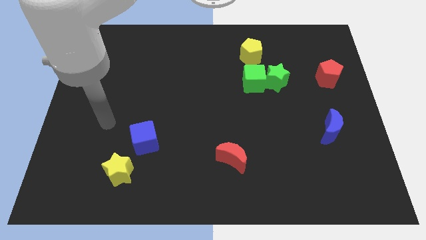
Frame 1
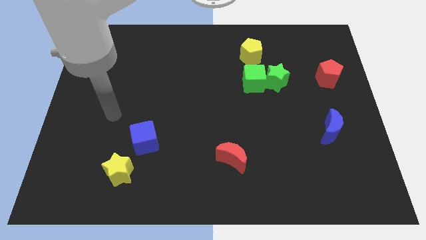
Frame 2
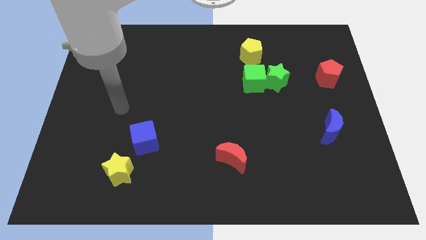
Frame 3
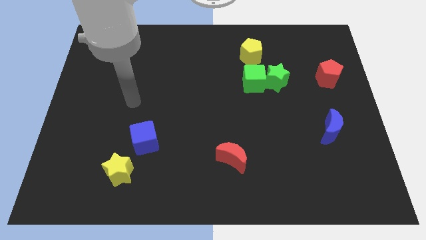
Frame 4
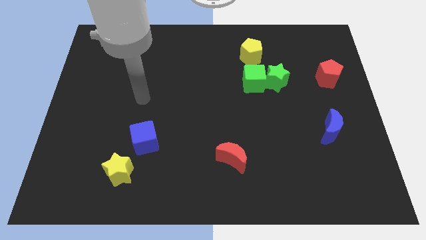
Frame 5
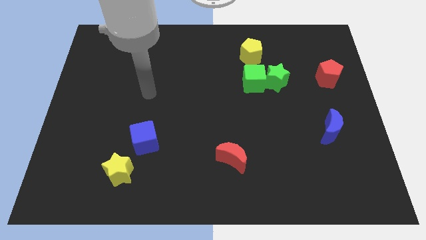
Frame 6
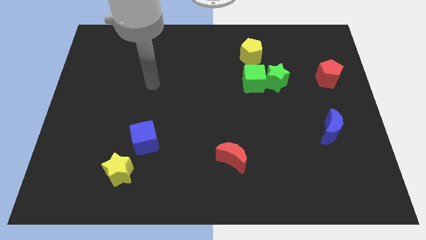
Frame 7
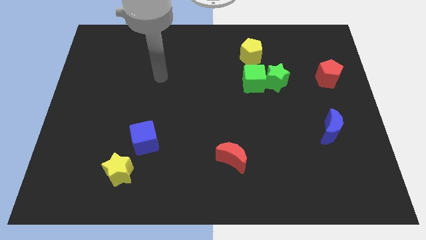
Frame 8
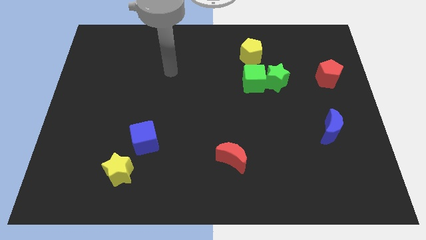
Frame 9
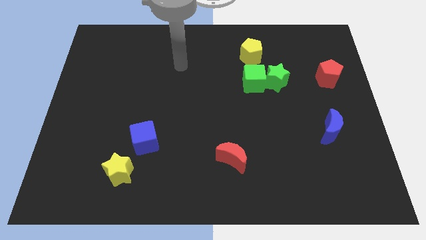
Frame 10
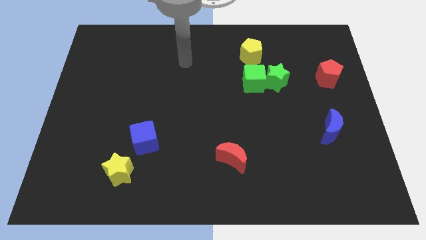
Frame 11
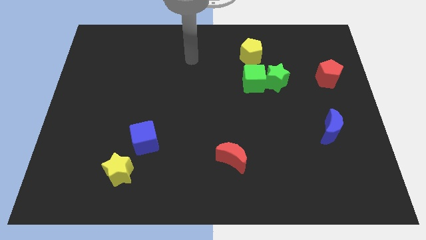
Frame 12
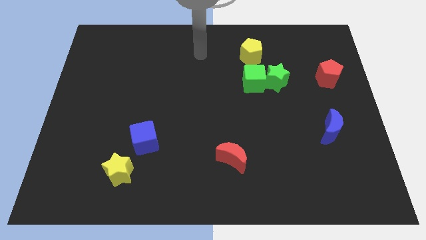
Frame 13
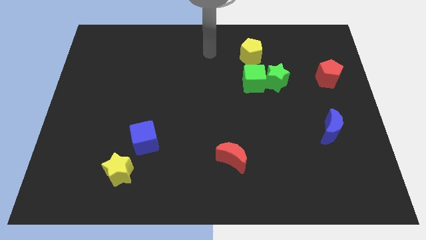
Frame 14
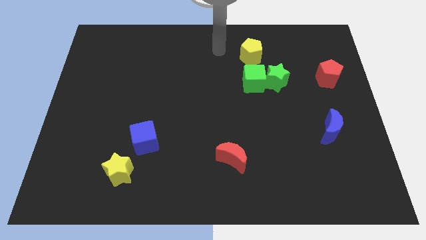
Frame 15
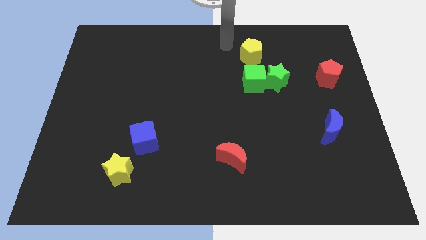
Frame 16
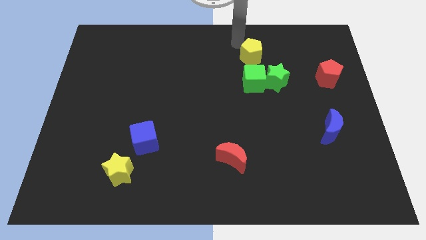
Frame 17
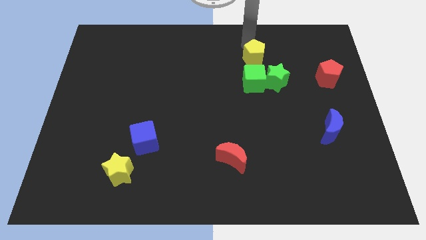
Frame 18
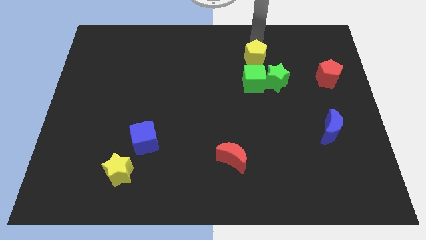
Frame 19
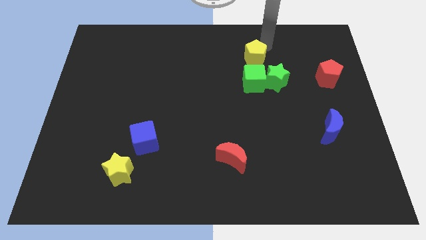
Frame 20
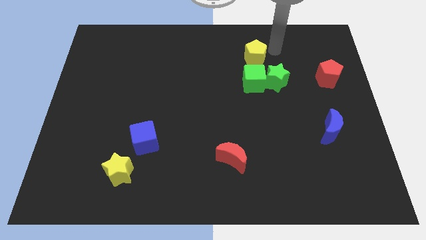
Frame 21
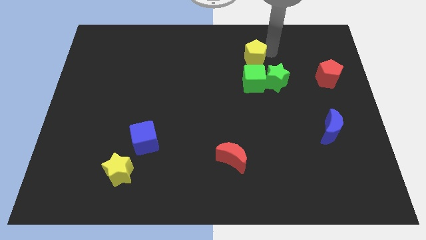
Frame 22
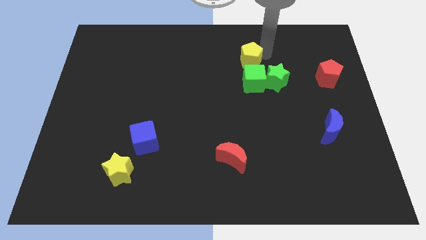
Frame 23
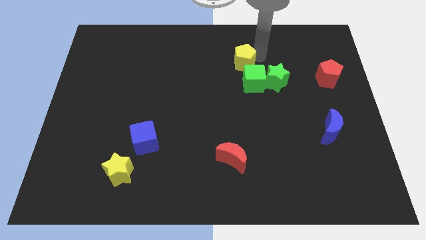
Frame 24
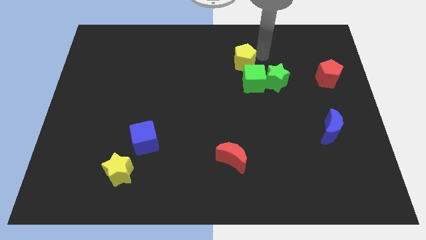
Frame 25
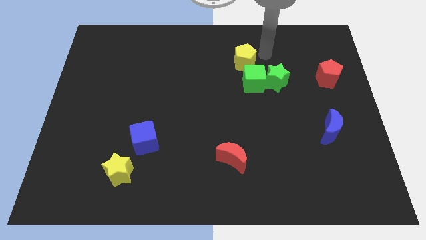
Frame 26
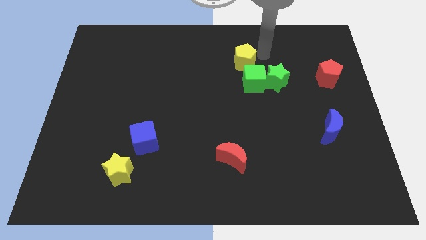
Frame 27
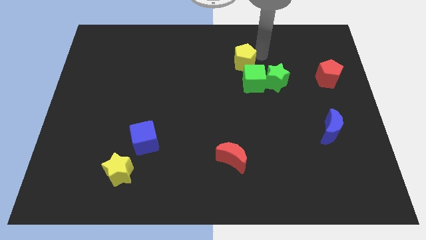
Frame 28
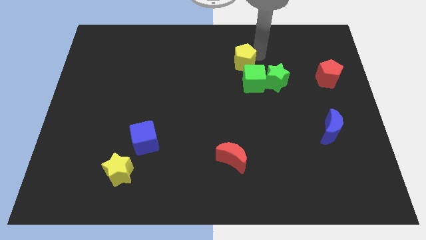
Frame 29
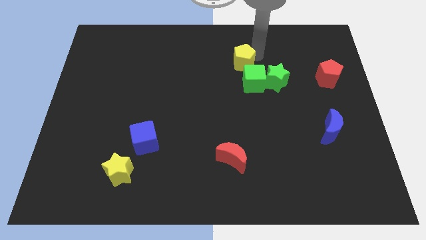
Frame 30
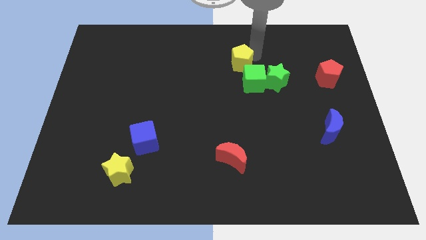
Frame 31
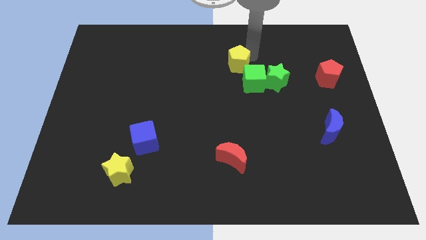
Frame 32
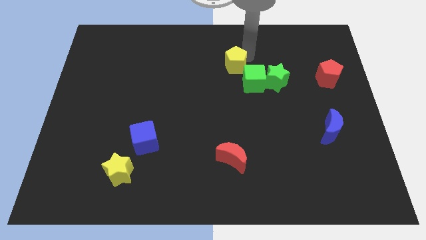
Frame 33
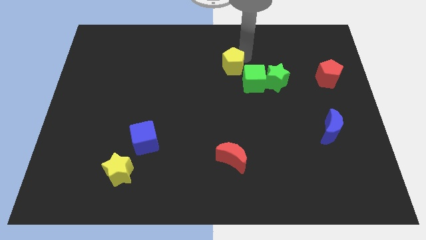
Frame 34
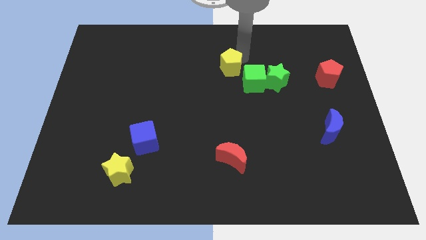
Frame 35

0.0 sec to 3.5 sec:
push the yellow pentagon diagonally down and left somewhat

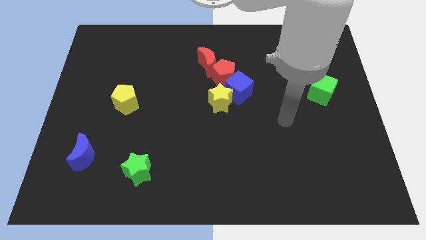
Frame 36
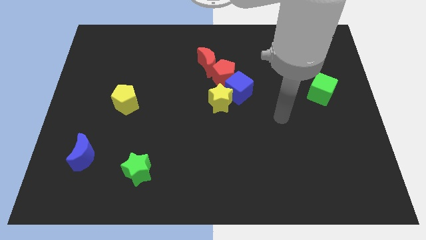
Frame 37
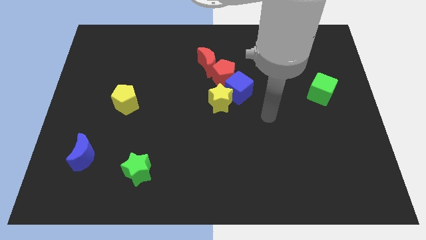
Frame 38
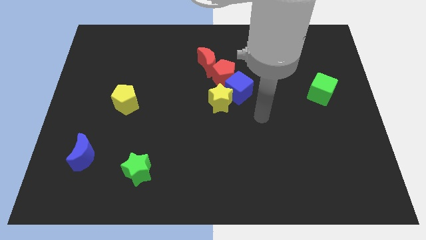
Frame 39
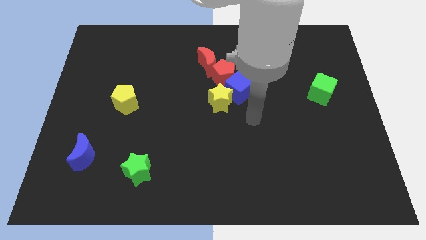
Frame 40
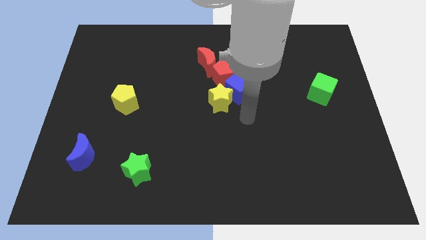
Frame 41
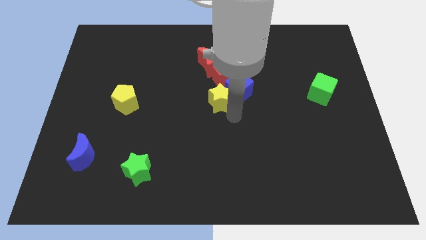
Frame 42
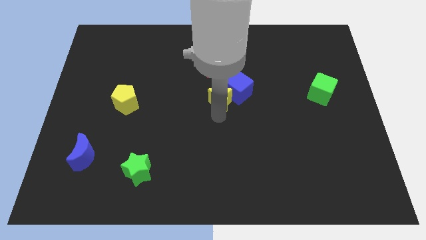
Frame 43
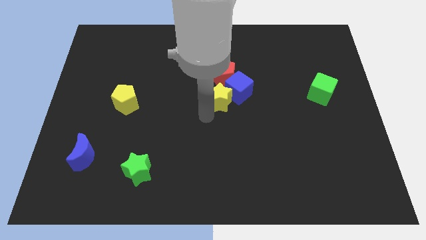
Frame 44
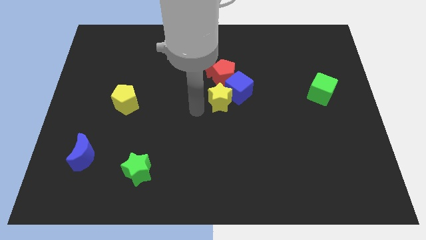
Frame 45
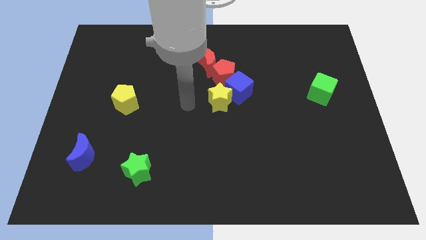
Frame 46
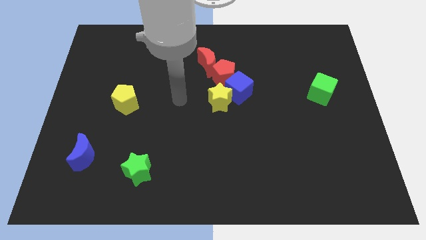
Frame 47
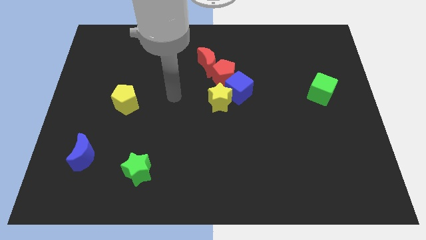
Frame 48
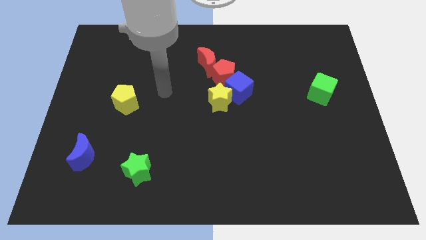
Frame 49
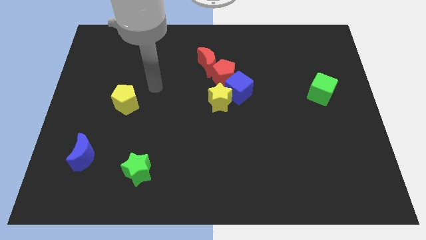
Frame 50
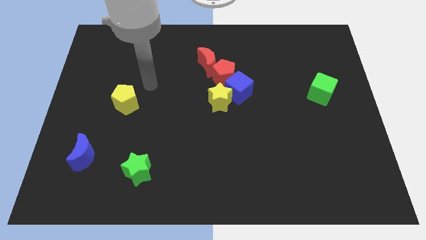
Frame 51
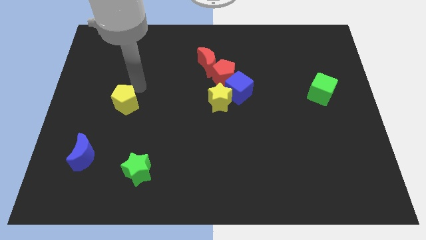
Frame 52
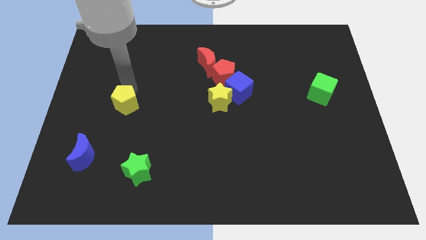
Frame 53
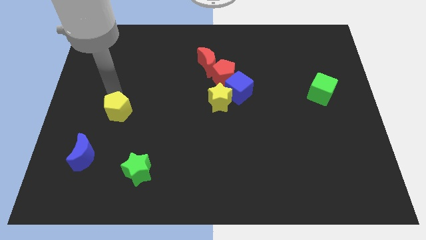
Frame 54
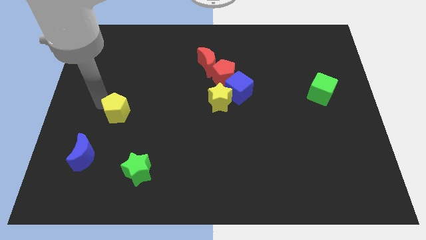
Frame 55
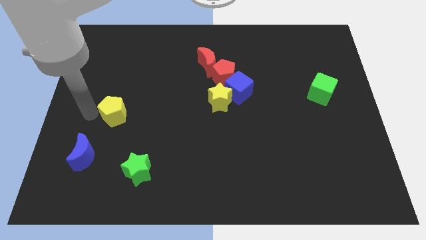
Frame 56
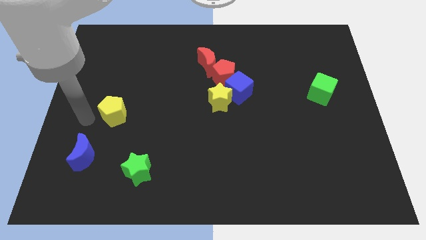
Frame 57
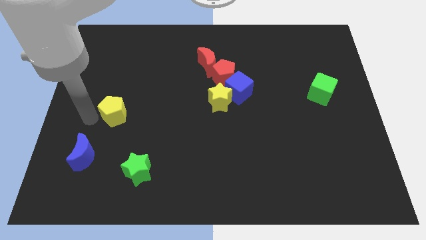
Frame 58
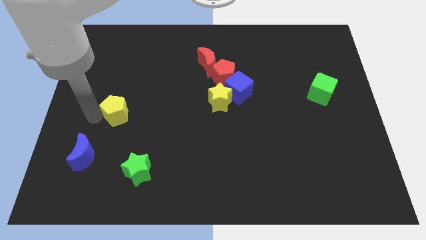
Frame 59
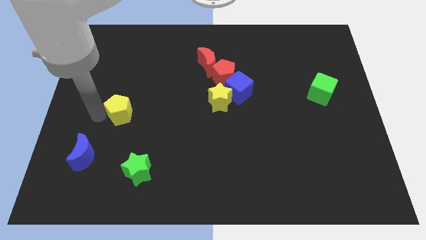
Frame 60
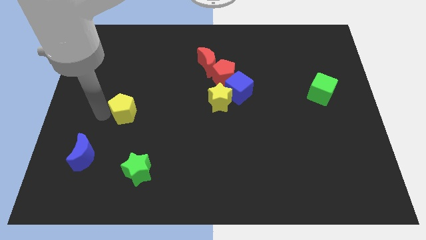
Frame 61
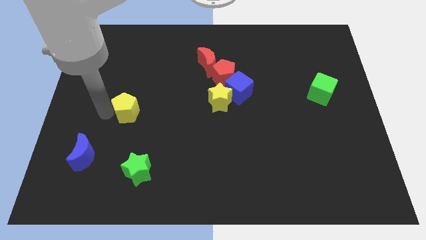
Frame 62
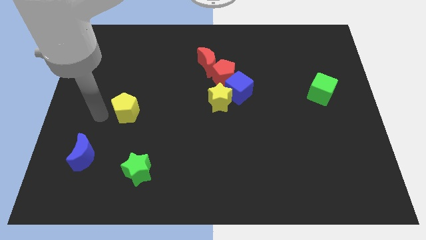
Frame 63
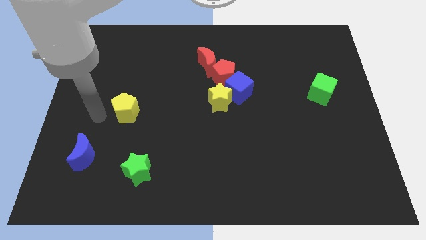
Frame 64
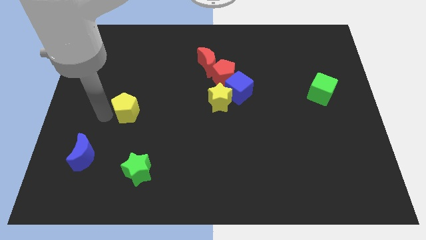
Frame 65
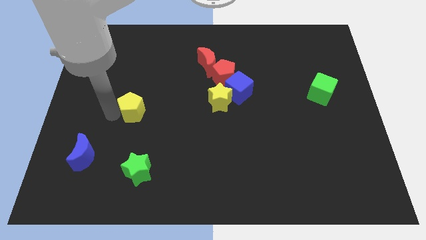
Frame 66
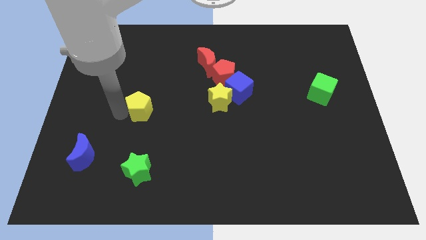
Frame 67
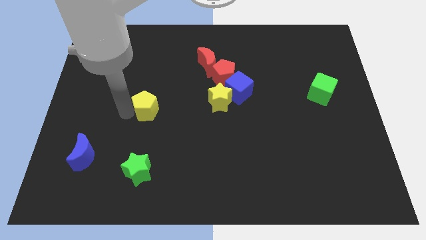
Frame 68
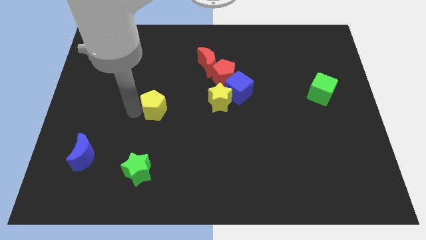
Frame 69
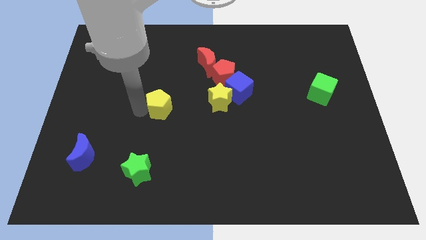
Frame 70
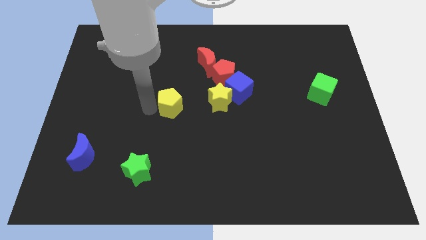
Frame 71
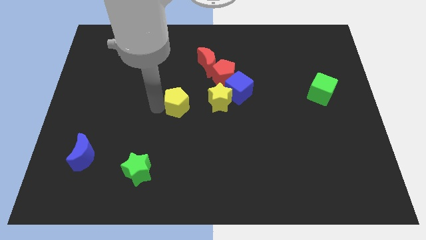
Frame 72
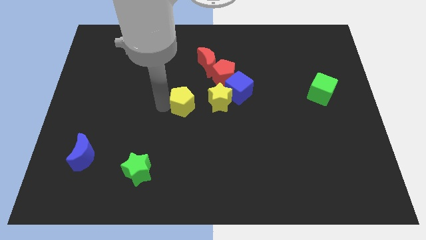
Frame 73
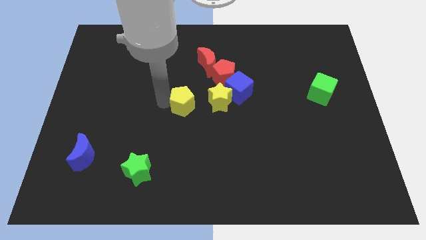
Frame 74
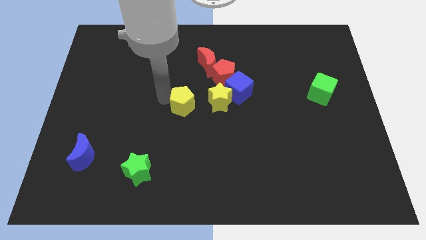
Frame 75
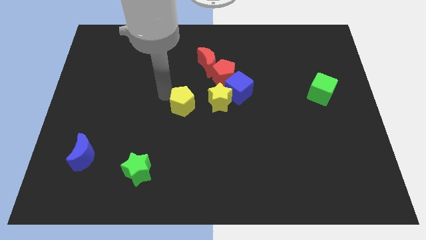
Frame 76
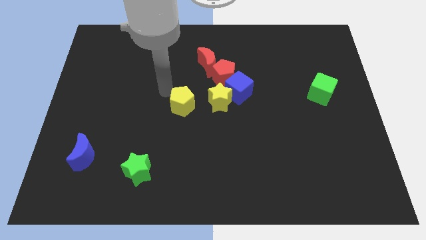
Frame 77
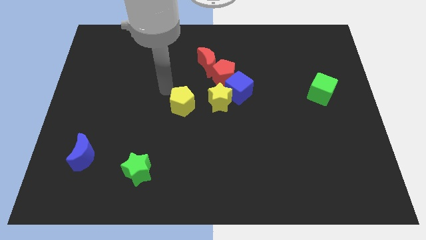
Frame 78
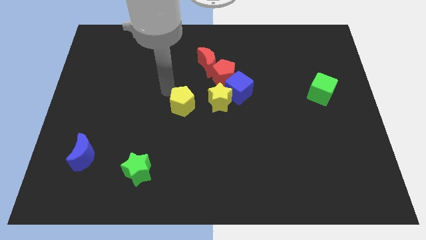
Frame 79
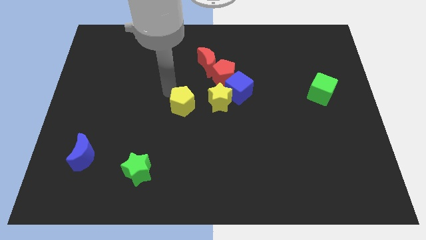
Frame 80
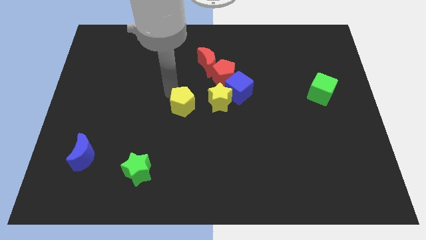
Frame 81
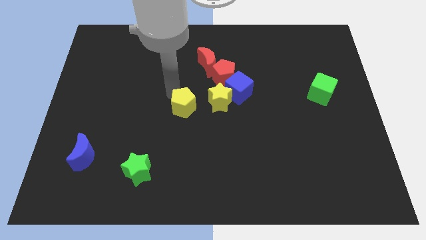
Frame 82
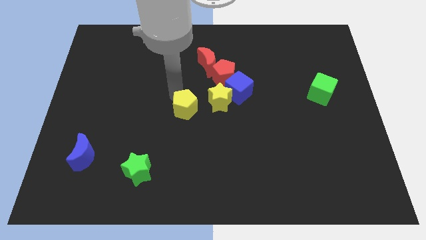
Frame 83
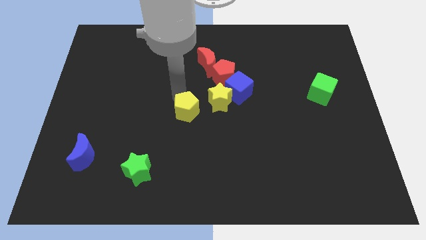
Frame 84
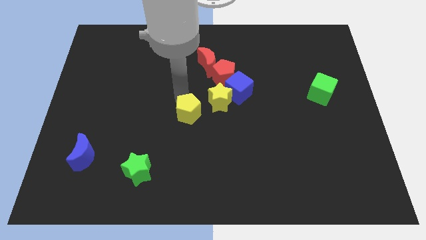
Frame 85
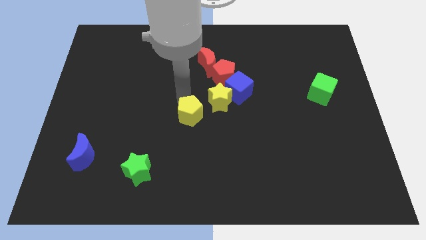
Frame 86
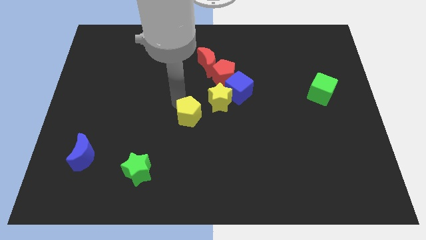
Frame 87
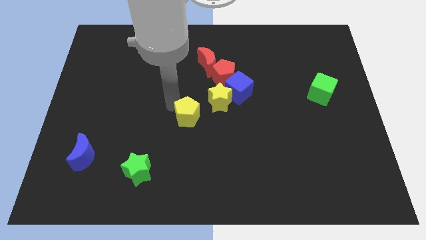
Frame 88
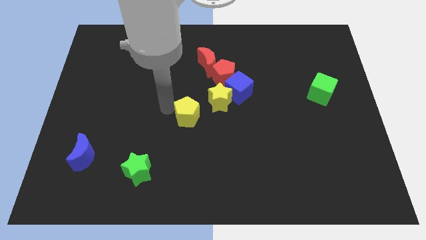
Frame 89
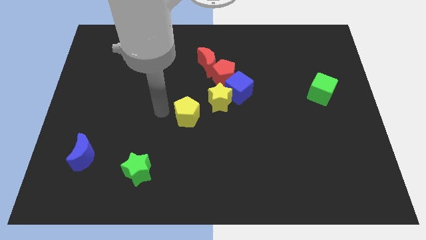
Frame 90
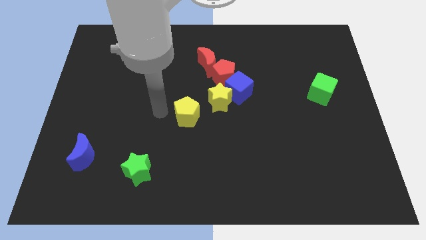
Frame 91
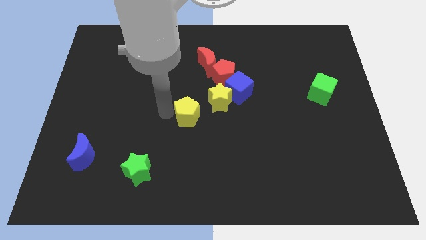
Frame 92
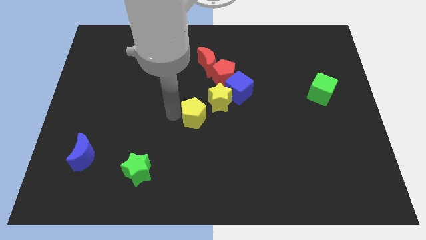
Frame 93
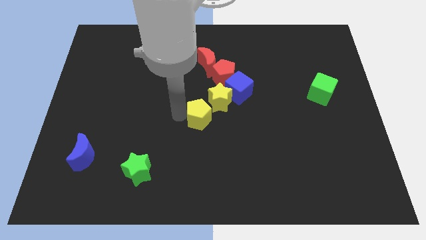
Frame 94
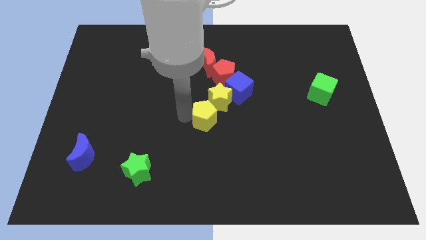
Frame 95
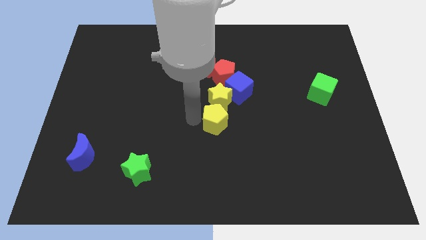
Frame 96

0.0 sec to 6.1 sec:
slide the yellow pentagon right
